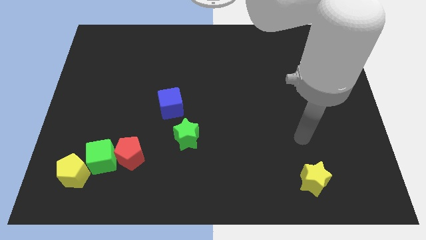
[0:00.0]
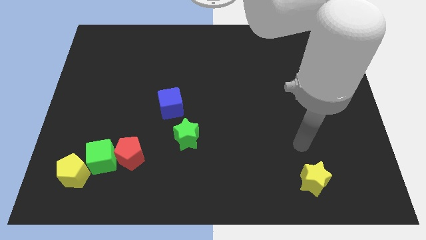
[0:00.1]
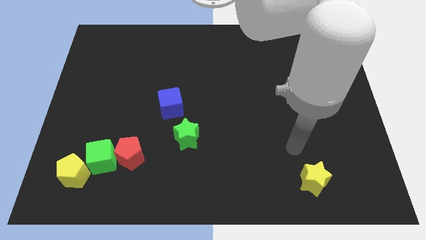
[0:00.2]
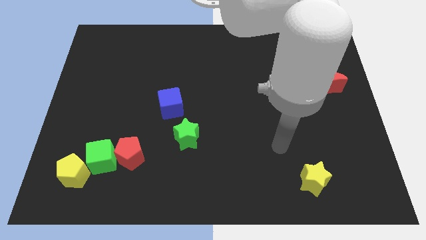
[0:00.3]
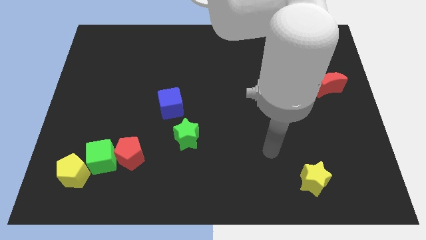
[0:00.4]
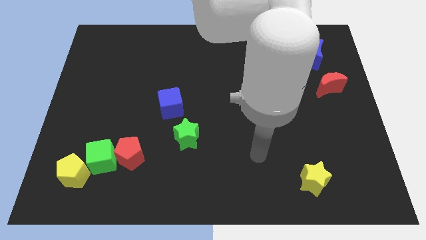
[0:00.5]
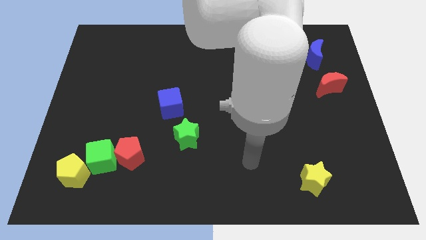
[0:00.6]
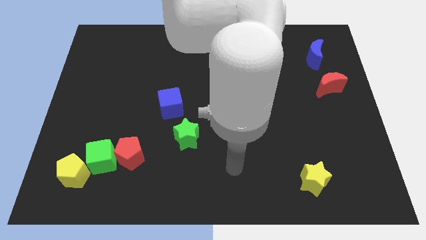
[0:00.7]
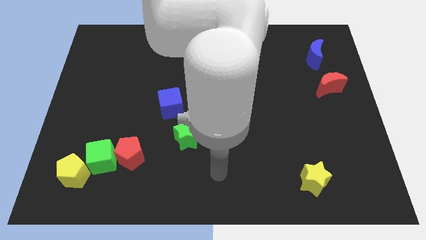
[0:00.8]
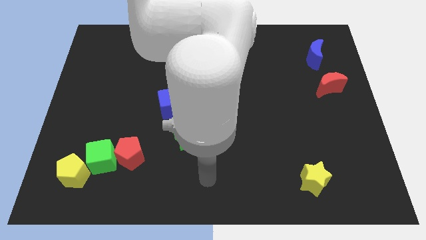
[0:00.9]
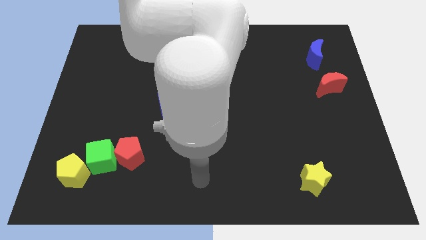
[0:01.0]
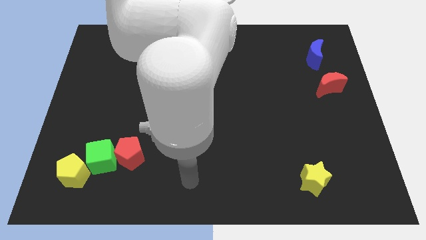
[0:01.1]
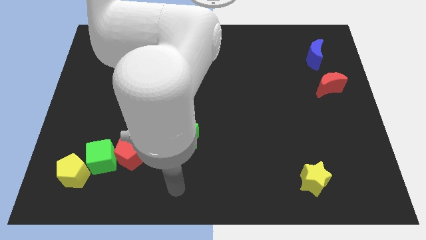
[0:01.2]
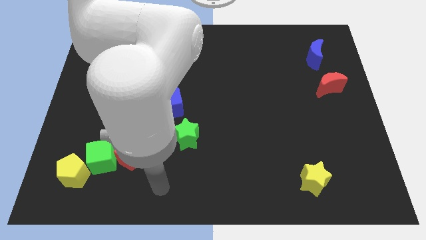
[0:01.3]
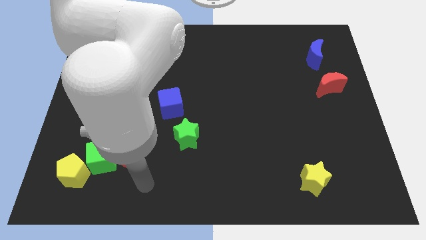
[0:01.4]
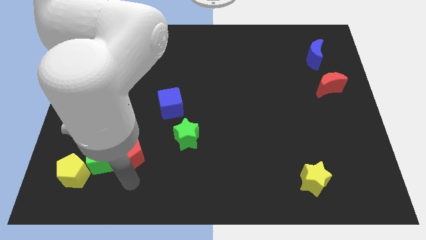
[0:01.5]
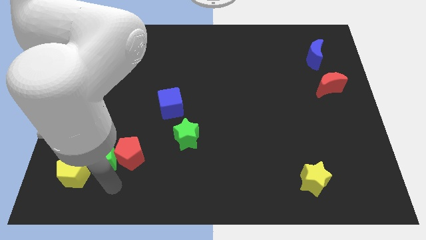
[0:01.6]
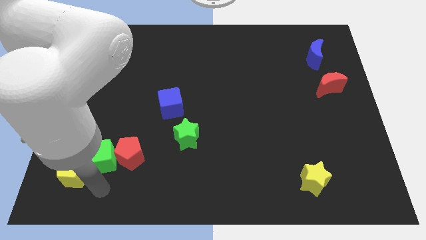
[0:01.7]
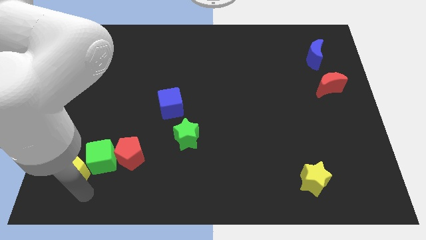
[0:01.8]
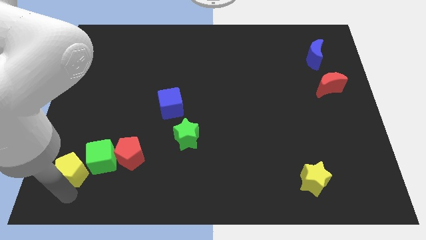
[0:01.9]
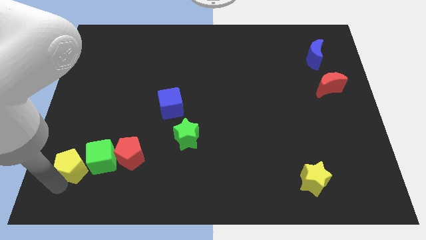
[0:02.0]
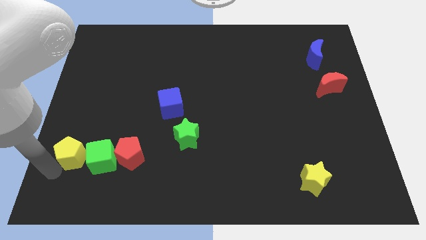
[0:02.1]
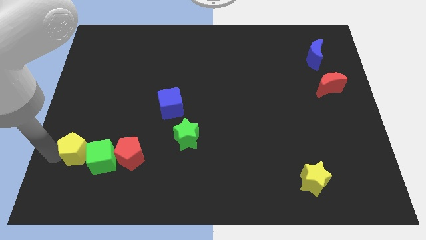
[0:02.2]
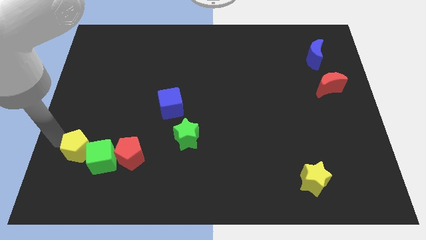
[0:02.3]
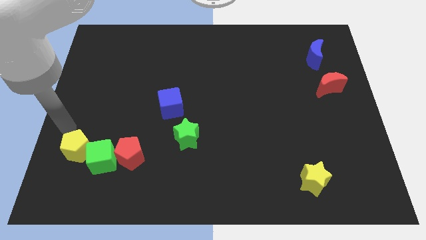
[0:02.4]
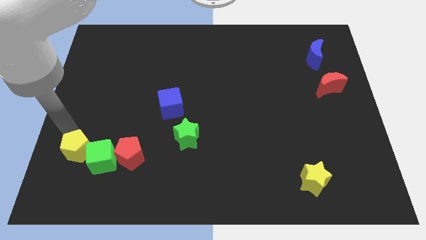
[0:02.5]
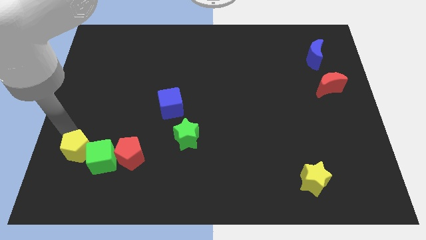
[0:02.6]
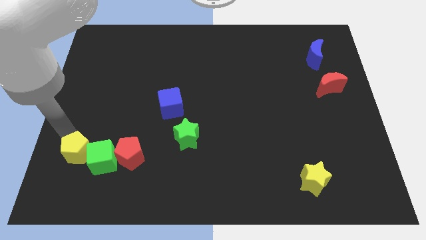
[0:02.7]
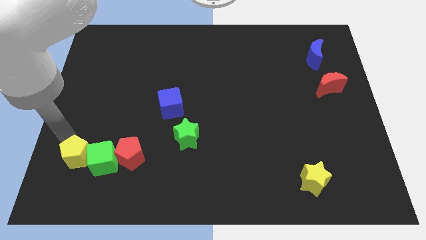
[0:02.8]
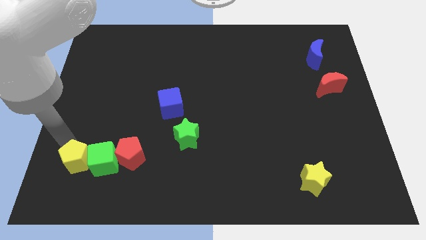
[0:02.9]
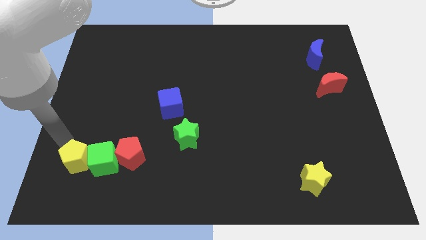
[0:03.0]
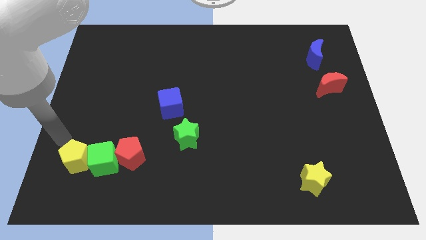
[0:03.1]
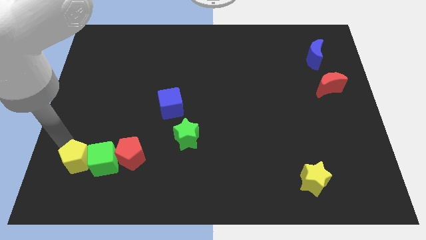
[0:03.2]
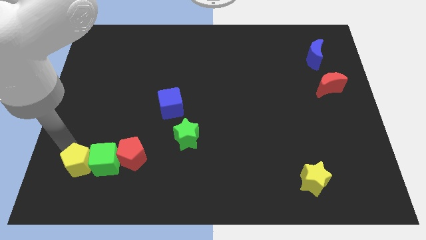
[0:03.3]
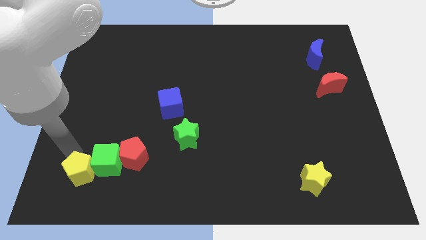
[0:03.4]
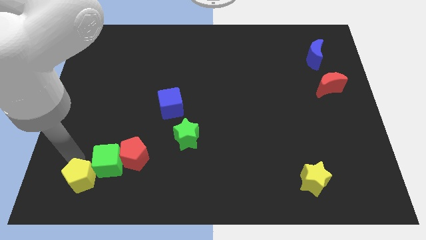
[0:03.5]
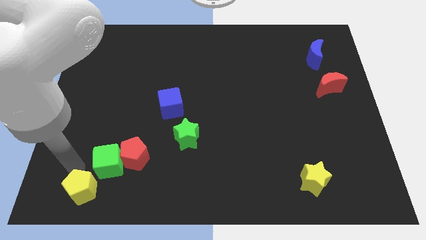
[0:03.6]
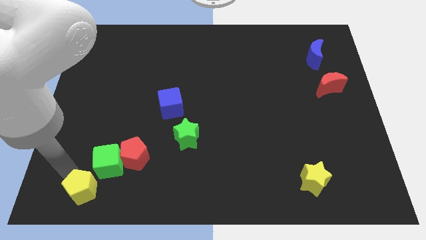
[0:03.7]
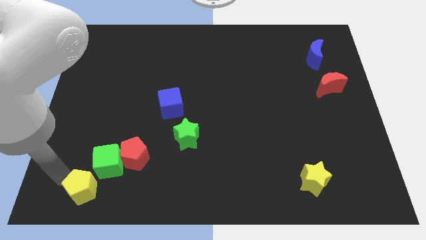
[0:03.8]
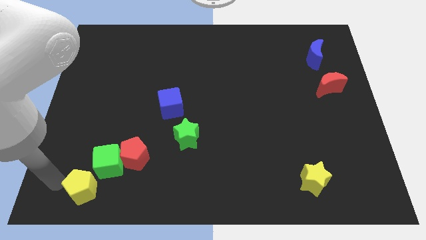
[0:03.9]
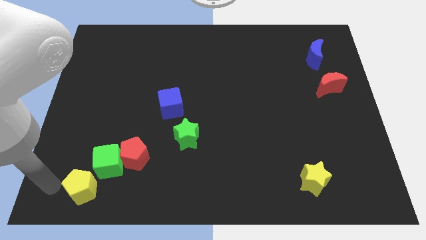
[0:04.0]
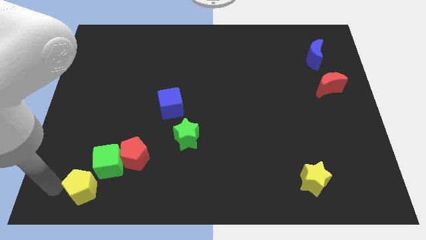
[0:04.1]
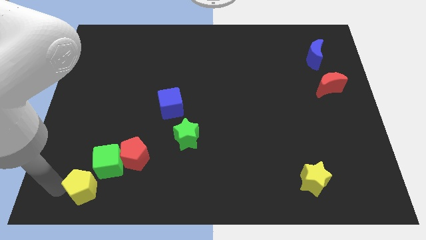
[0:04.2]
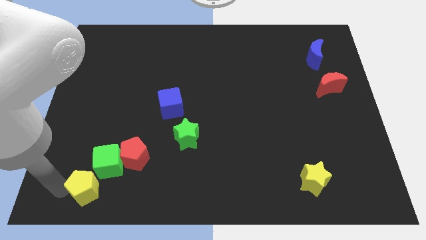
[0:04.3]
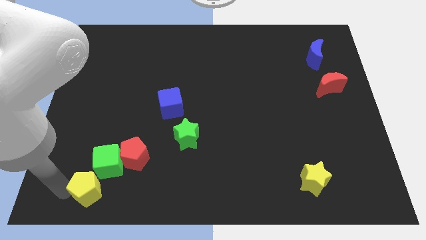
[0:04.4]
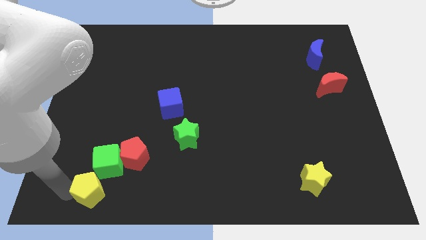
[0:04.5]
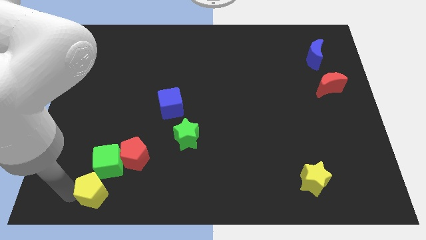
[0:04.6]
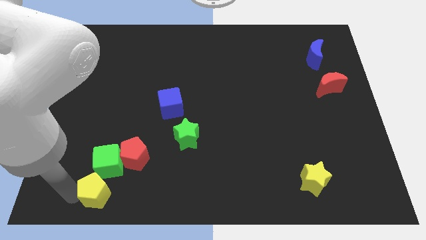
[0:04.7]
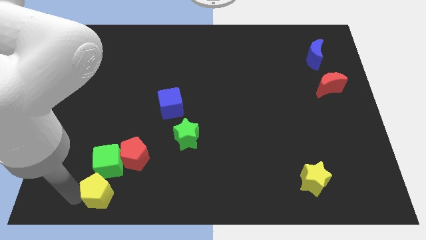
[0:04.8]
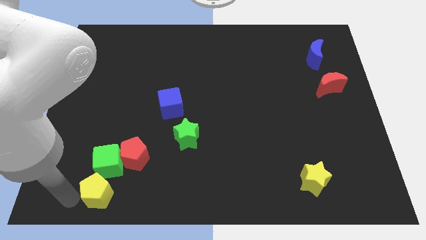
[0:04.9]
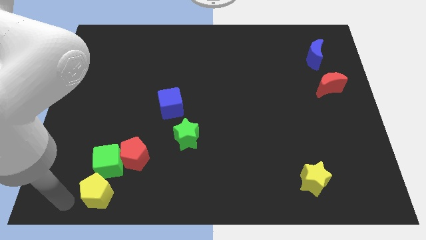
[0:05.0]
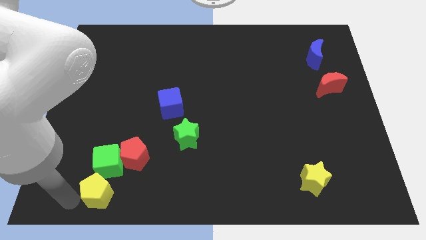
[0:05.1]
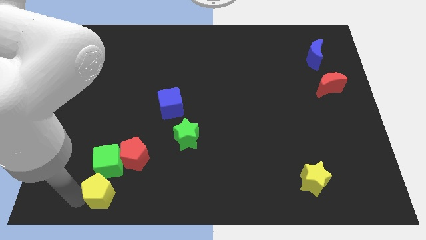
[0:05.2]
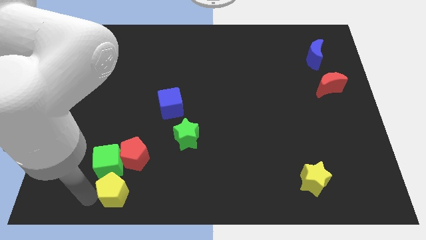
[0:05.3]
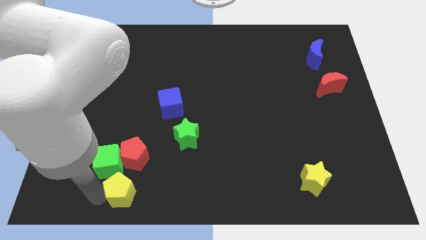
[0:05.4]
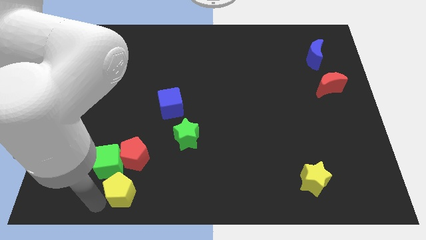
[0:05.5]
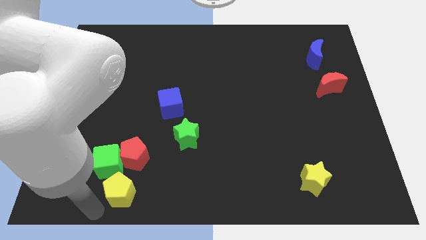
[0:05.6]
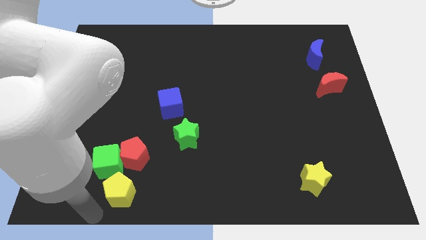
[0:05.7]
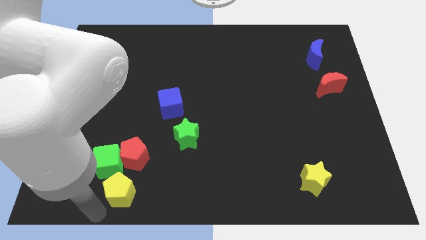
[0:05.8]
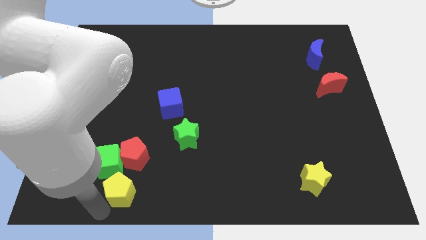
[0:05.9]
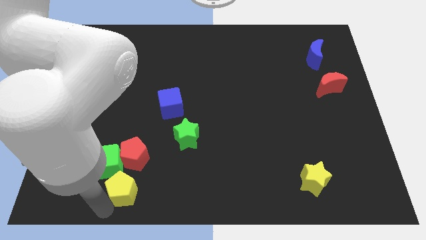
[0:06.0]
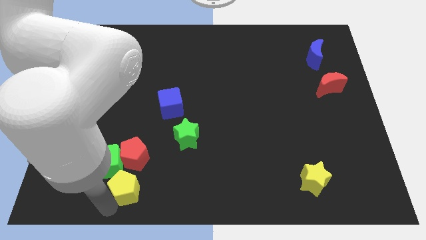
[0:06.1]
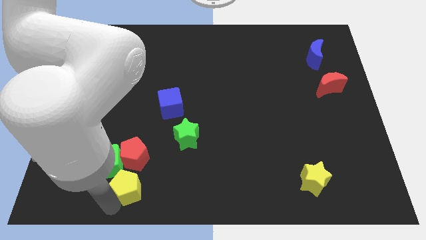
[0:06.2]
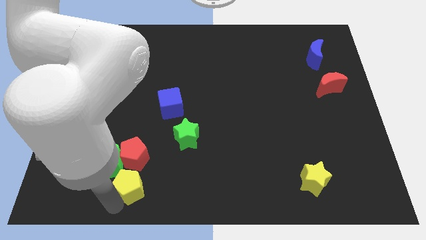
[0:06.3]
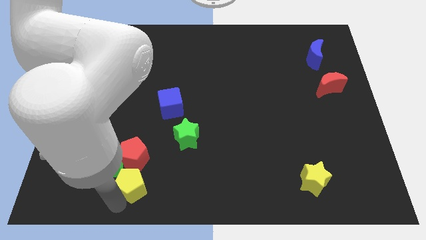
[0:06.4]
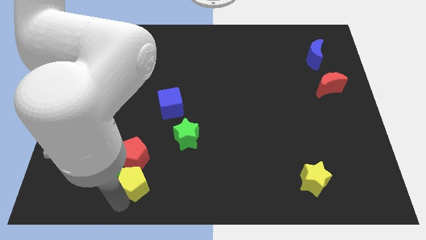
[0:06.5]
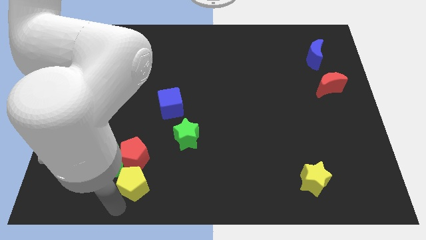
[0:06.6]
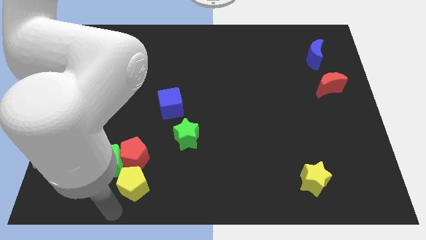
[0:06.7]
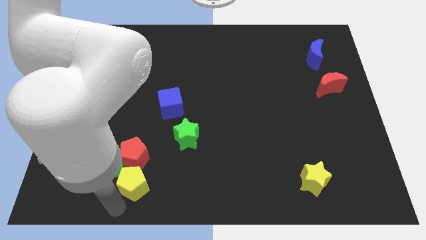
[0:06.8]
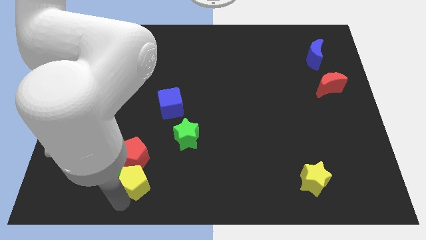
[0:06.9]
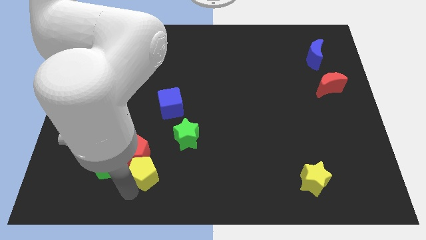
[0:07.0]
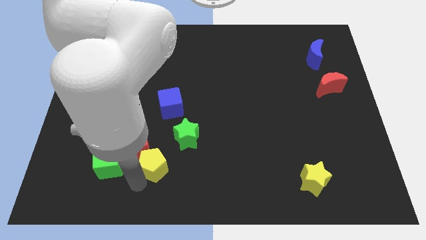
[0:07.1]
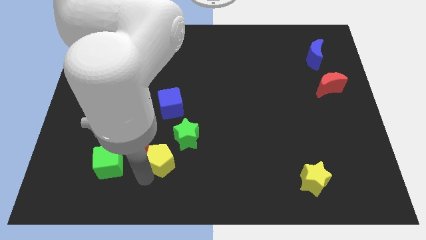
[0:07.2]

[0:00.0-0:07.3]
slide the yellow pentagon to the bottom side of the blue cube
